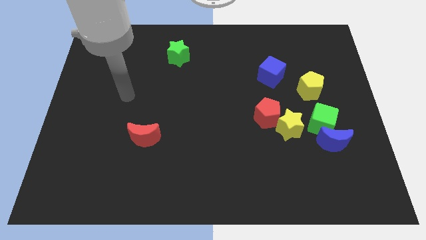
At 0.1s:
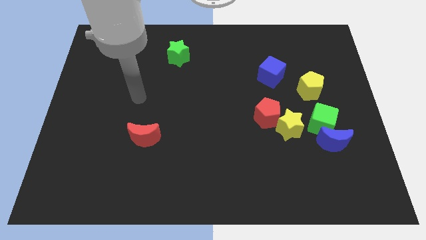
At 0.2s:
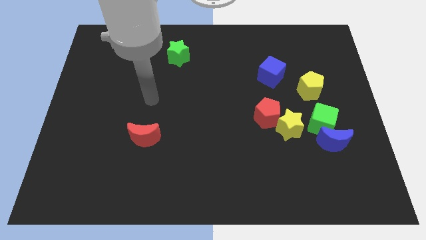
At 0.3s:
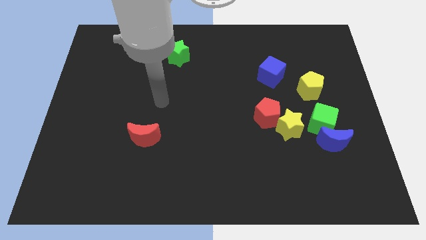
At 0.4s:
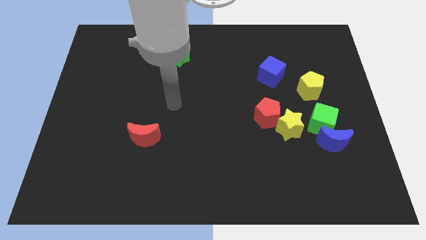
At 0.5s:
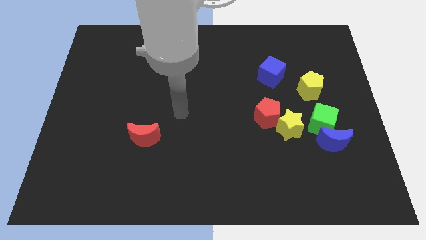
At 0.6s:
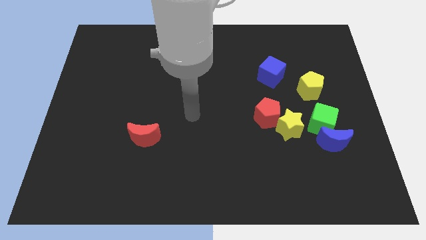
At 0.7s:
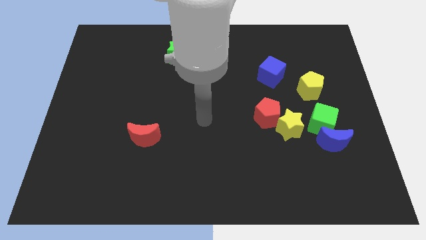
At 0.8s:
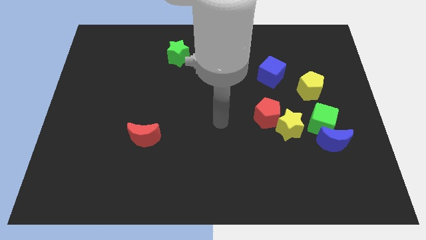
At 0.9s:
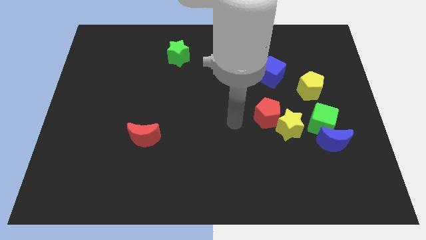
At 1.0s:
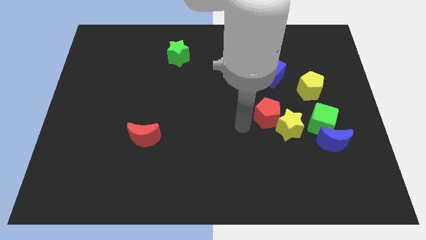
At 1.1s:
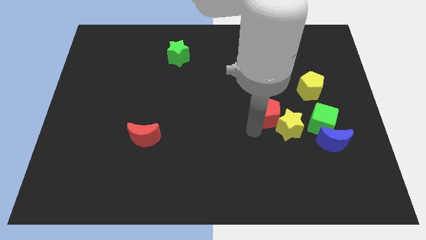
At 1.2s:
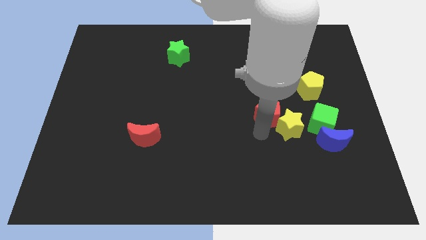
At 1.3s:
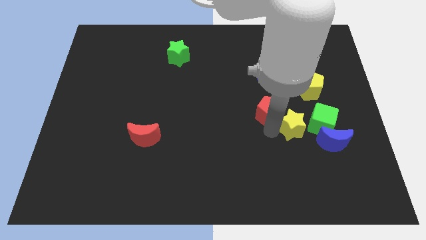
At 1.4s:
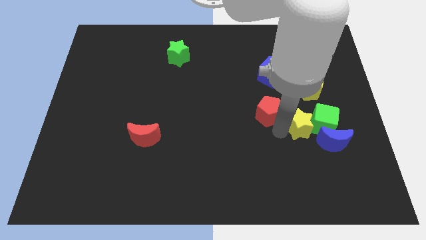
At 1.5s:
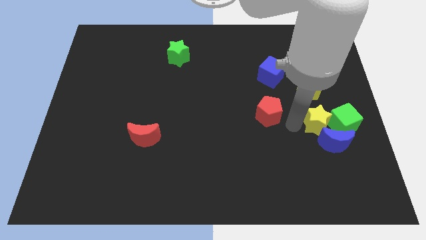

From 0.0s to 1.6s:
separate the red pentagon from the yellow star

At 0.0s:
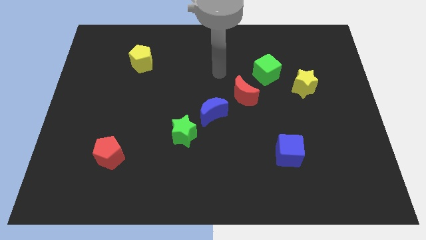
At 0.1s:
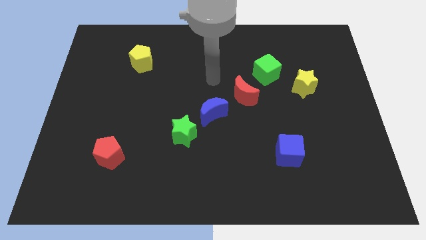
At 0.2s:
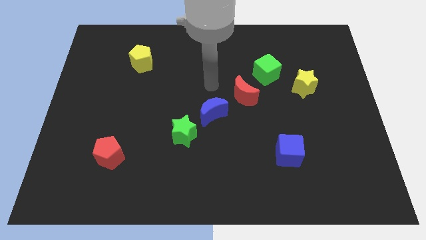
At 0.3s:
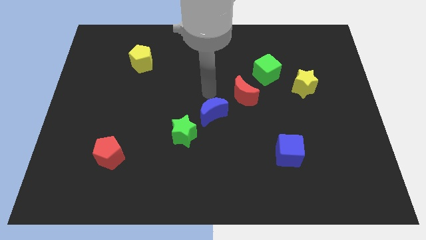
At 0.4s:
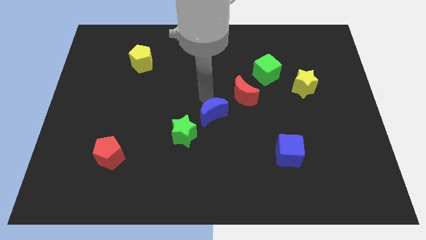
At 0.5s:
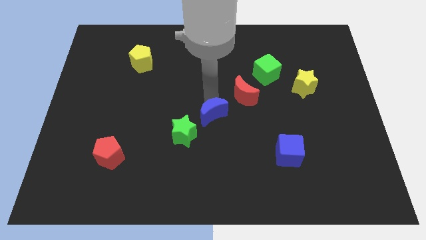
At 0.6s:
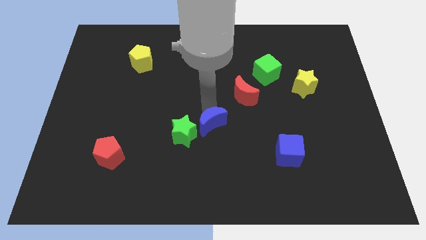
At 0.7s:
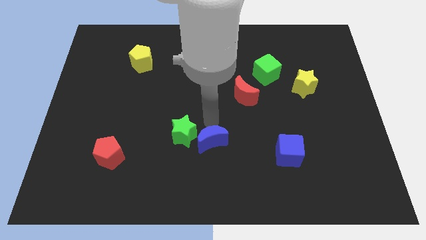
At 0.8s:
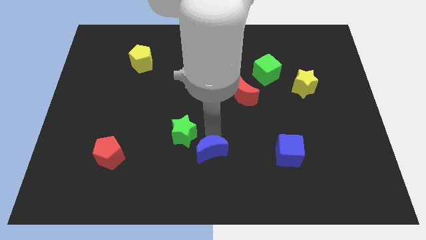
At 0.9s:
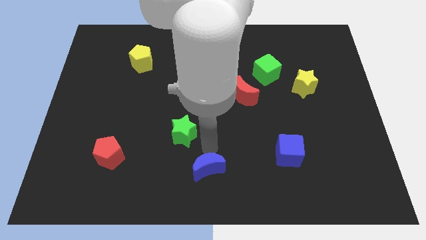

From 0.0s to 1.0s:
separate the green star from the blue moon

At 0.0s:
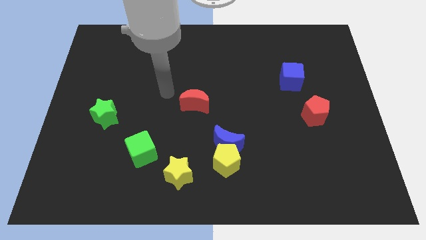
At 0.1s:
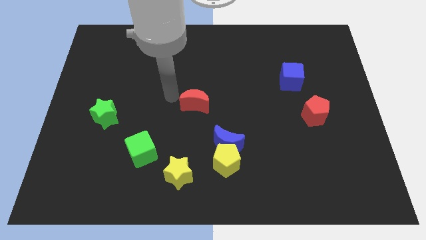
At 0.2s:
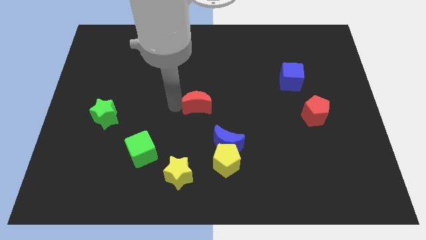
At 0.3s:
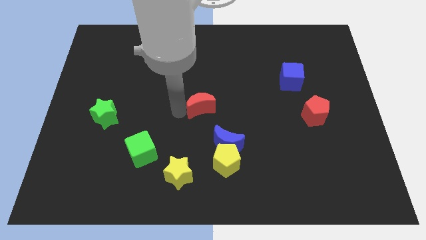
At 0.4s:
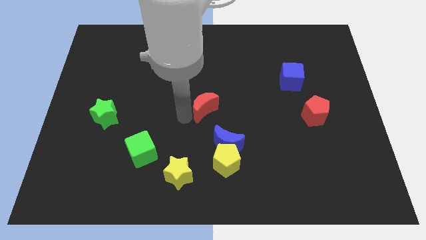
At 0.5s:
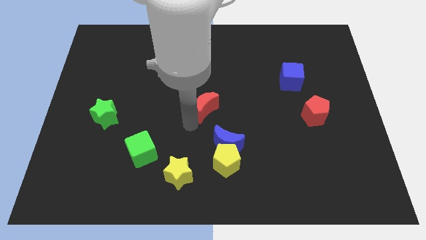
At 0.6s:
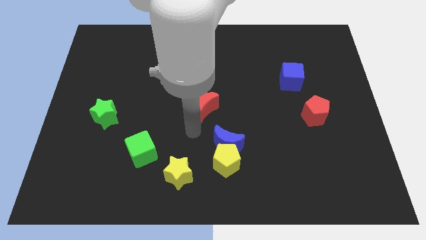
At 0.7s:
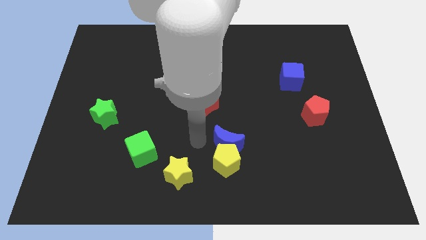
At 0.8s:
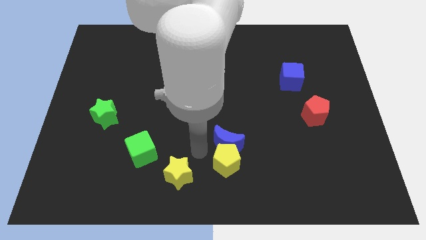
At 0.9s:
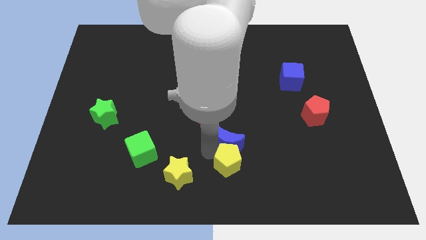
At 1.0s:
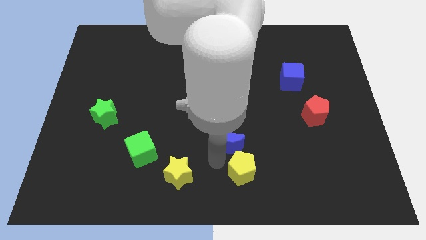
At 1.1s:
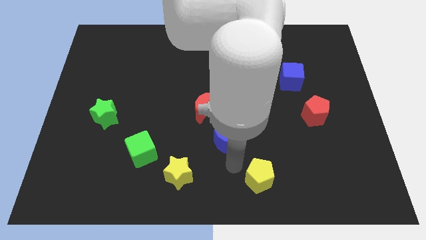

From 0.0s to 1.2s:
separate the blue moon from the yellow pentagon

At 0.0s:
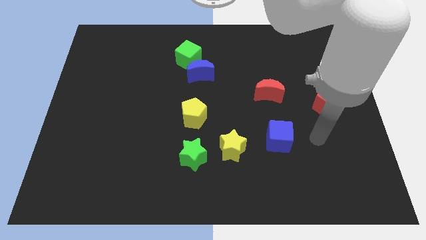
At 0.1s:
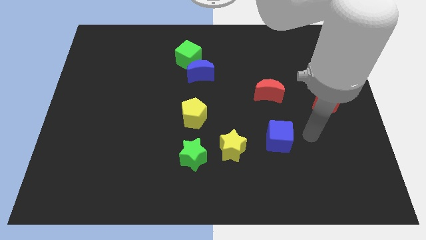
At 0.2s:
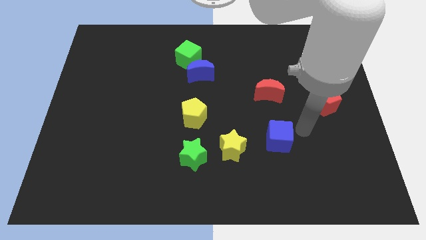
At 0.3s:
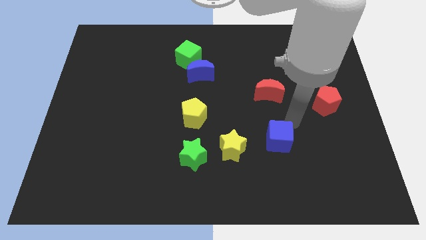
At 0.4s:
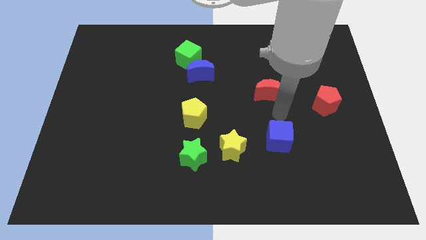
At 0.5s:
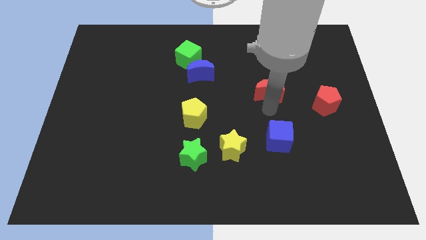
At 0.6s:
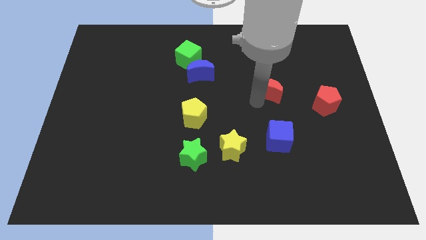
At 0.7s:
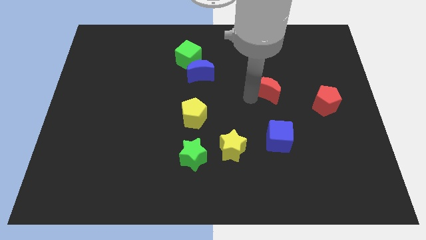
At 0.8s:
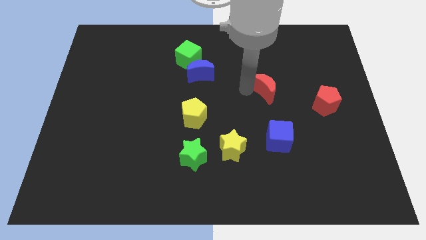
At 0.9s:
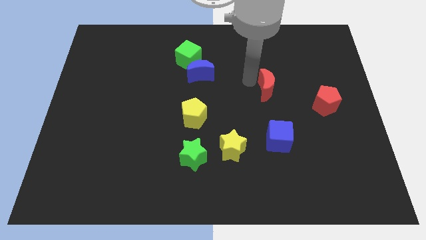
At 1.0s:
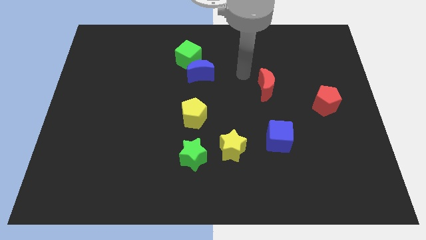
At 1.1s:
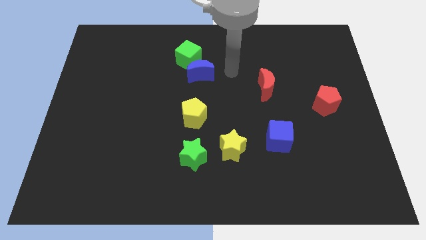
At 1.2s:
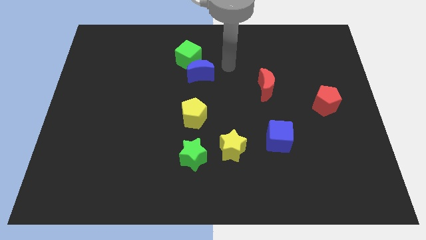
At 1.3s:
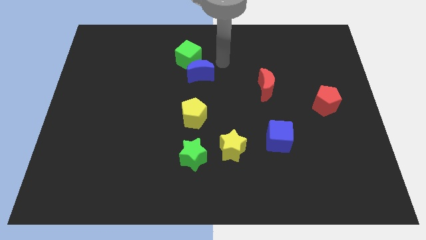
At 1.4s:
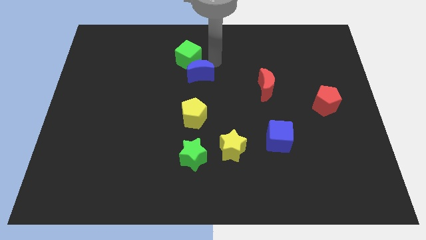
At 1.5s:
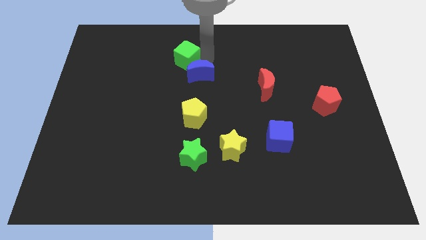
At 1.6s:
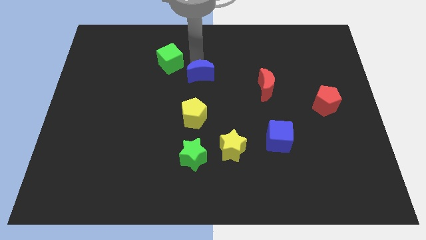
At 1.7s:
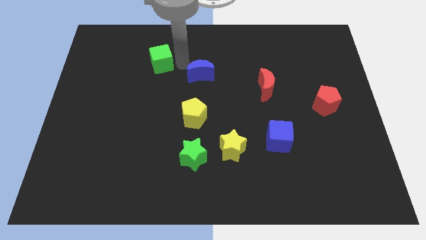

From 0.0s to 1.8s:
pull the blue moon apart from the green cube

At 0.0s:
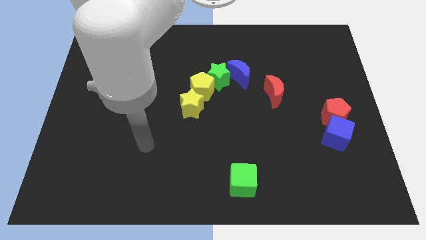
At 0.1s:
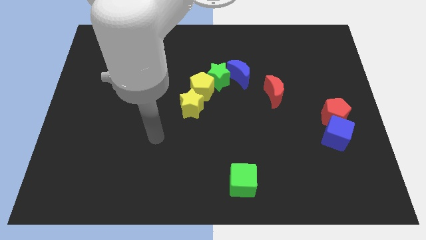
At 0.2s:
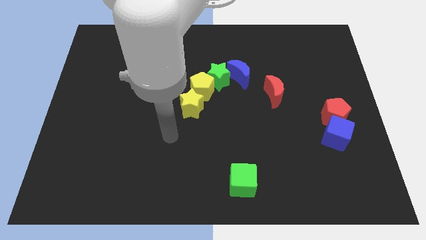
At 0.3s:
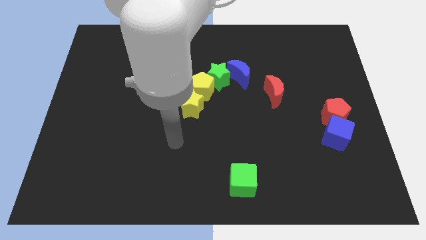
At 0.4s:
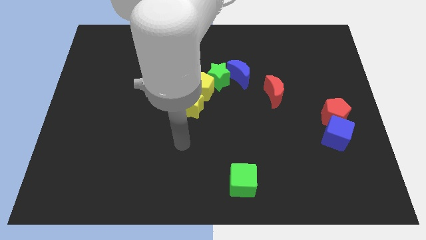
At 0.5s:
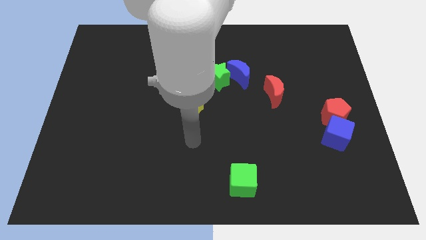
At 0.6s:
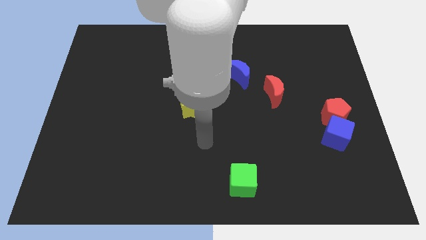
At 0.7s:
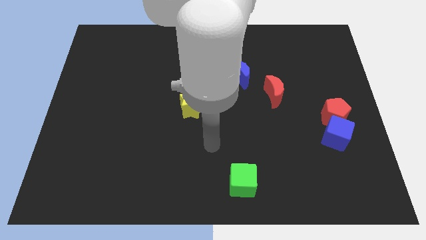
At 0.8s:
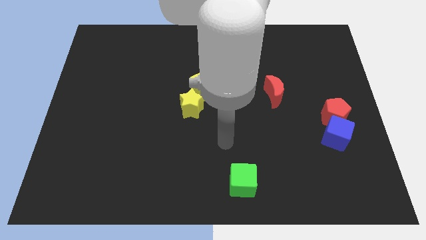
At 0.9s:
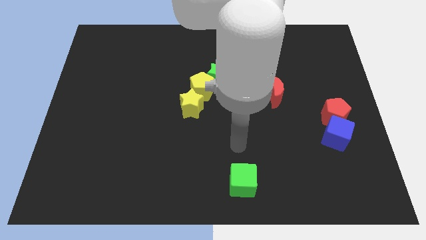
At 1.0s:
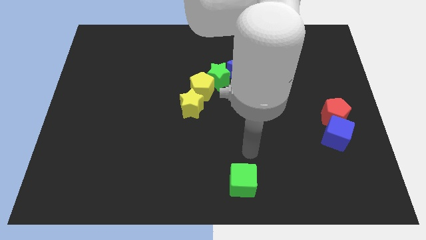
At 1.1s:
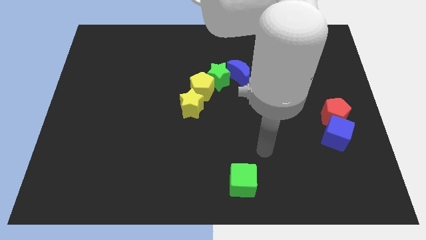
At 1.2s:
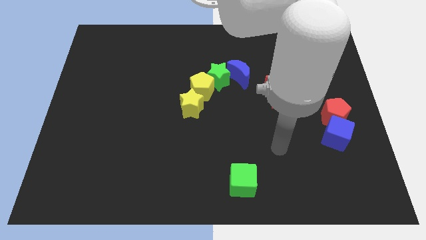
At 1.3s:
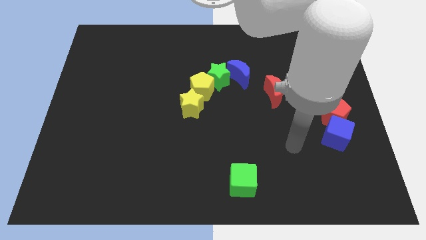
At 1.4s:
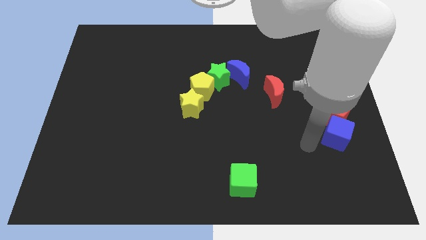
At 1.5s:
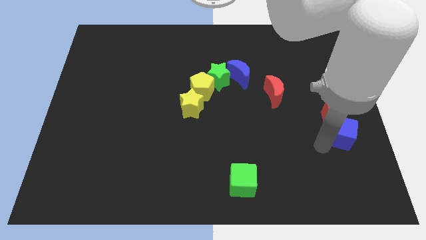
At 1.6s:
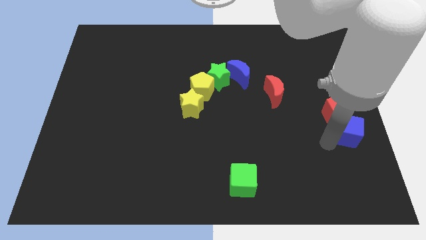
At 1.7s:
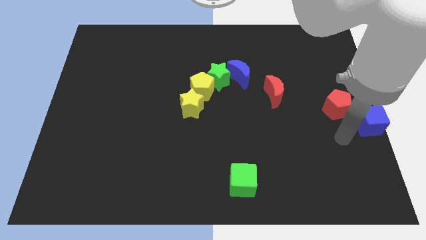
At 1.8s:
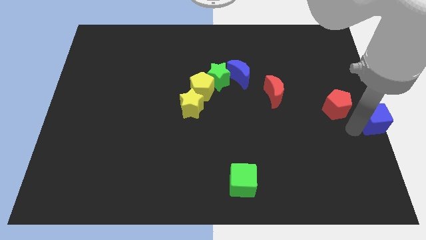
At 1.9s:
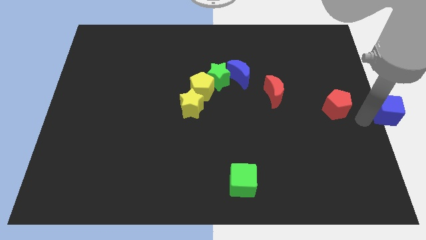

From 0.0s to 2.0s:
pull the red pentagon apart from the blue cube

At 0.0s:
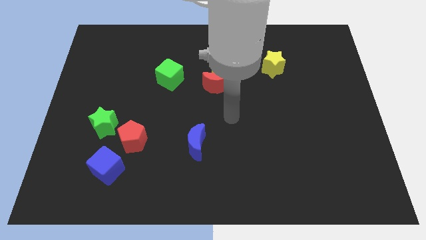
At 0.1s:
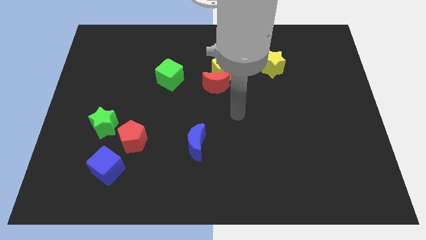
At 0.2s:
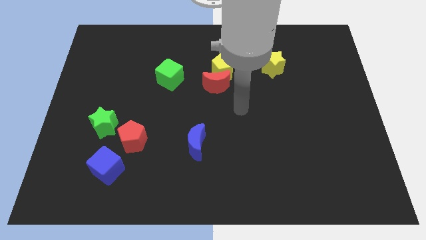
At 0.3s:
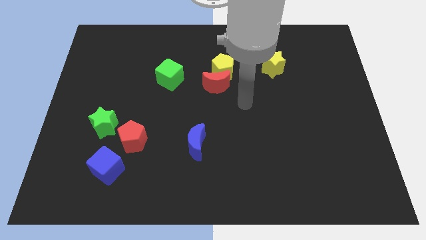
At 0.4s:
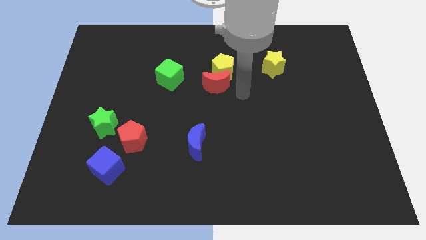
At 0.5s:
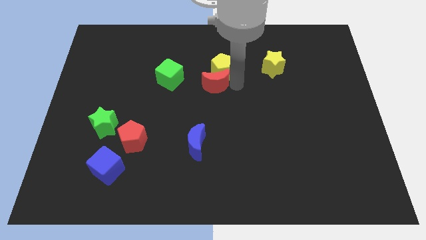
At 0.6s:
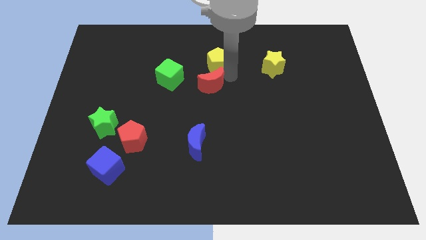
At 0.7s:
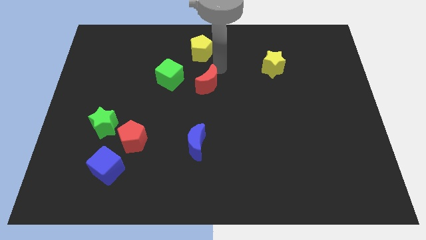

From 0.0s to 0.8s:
separate the red moon from the yellow pentagon

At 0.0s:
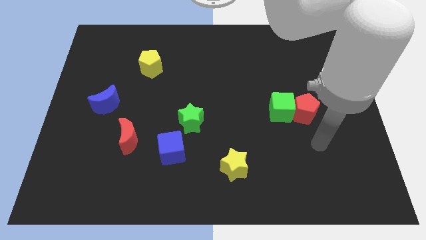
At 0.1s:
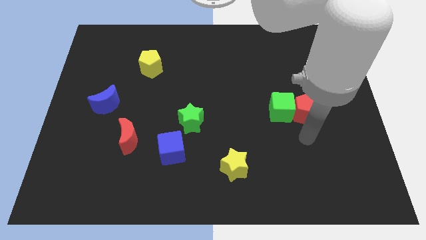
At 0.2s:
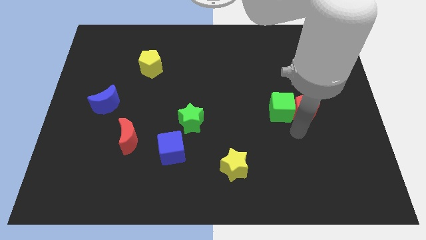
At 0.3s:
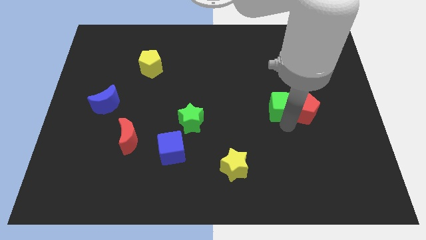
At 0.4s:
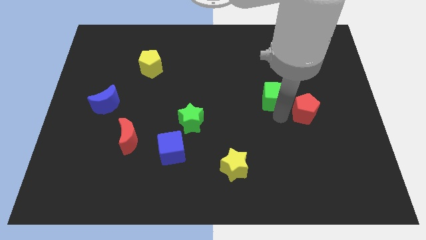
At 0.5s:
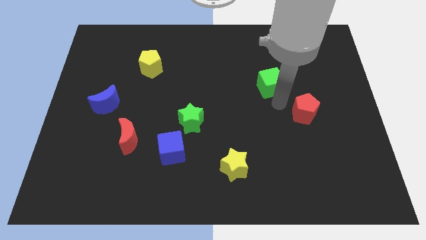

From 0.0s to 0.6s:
pull the red pentagon apart from the green cube

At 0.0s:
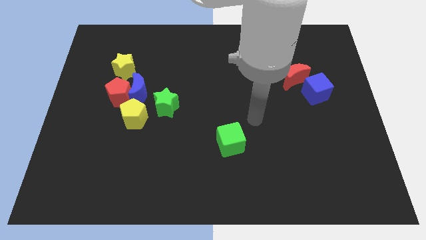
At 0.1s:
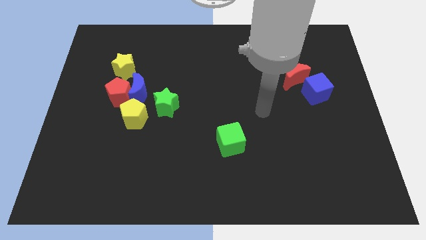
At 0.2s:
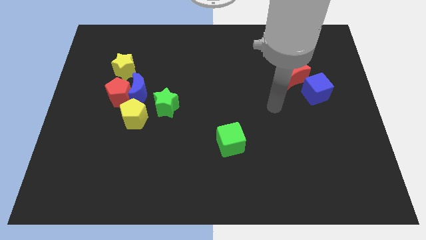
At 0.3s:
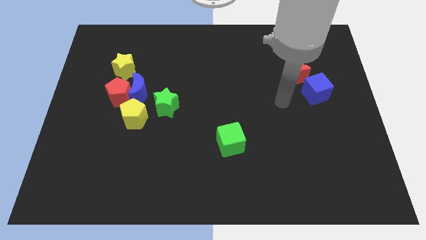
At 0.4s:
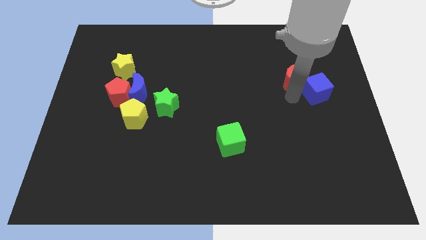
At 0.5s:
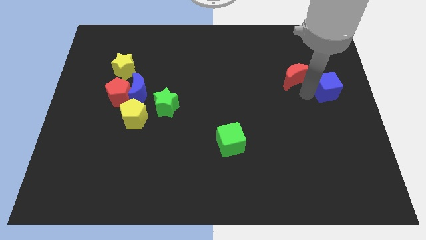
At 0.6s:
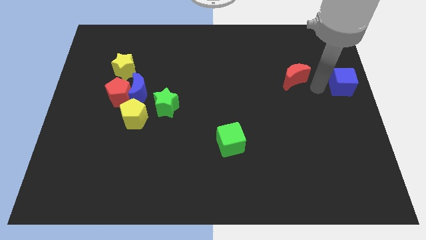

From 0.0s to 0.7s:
separate the red moon from the blue cube
